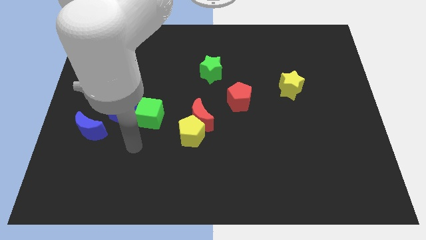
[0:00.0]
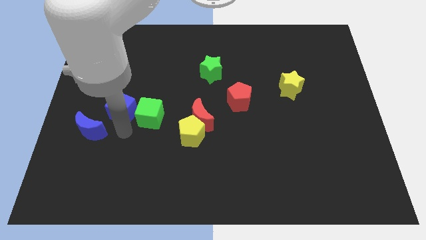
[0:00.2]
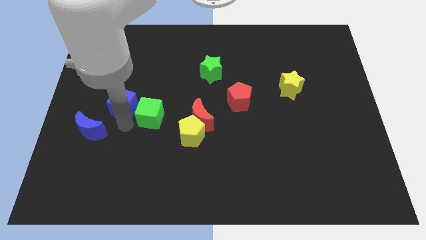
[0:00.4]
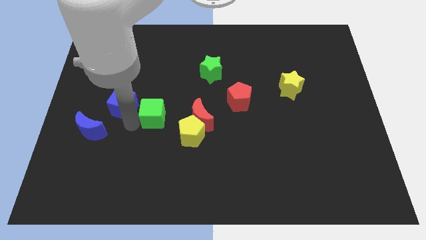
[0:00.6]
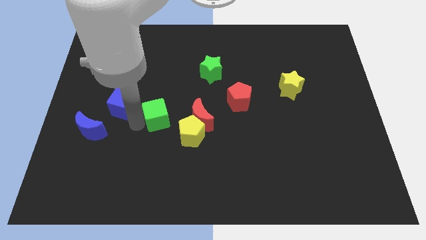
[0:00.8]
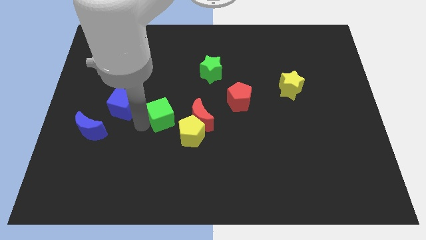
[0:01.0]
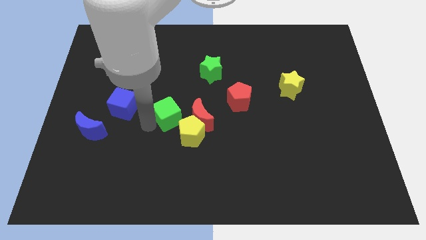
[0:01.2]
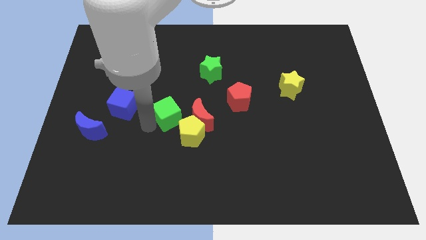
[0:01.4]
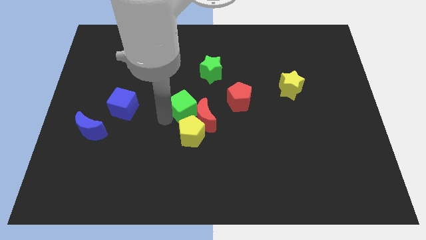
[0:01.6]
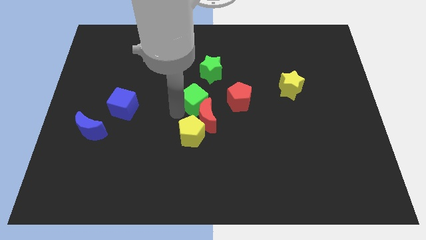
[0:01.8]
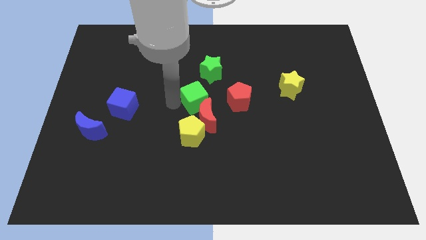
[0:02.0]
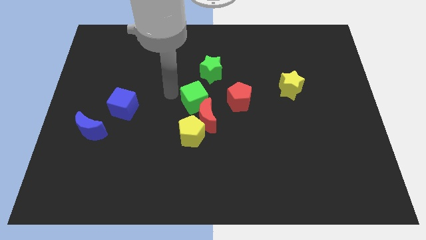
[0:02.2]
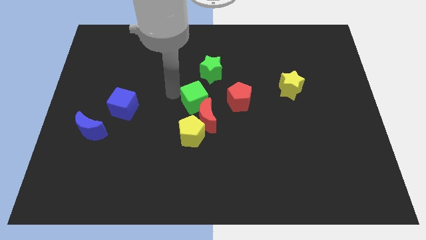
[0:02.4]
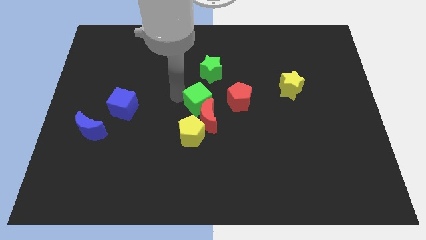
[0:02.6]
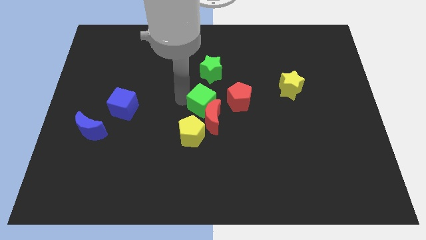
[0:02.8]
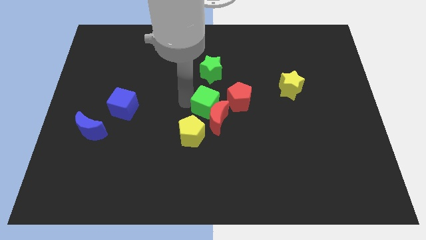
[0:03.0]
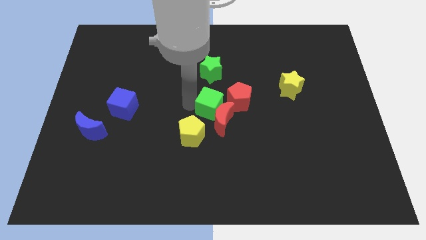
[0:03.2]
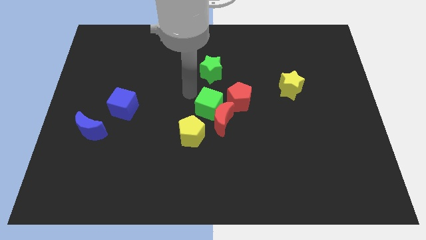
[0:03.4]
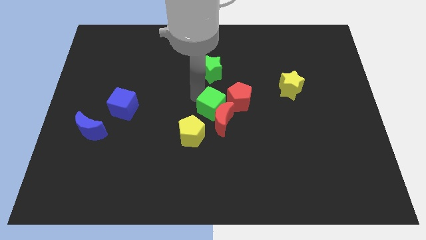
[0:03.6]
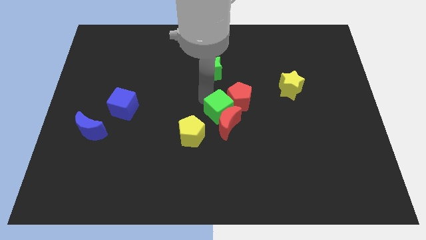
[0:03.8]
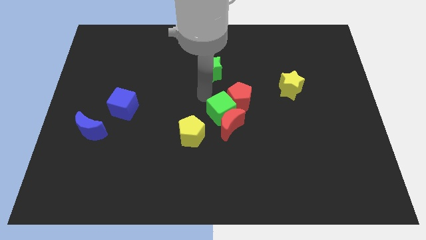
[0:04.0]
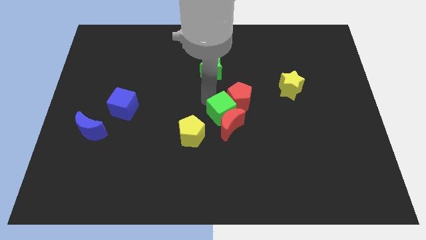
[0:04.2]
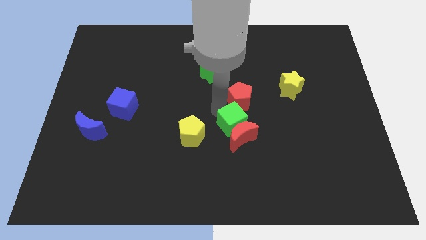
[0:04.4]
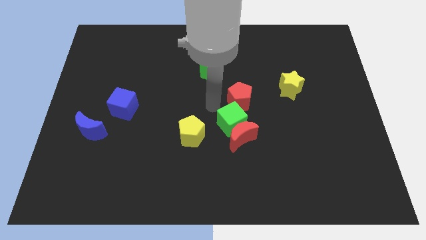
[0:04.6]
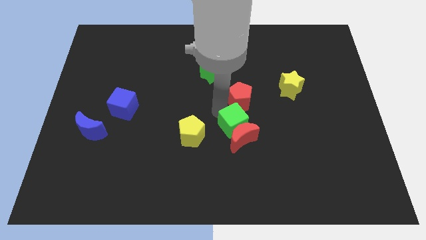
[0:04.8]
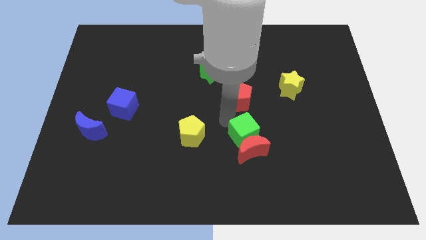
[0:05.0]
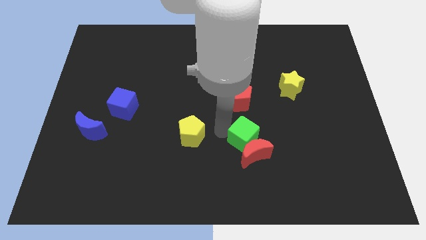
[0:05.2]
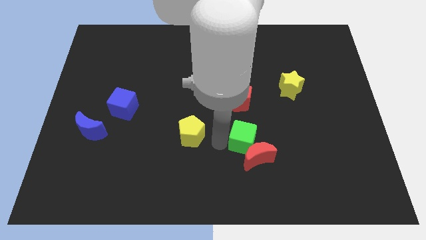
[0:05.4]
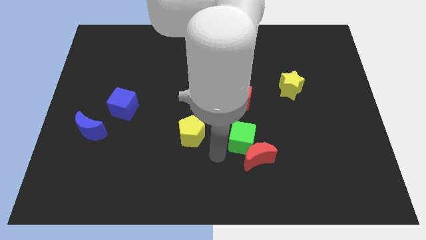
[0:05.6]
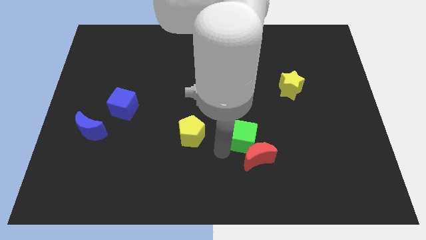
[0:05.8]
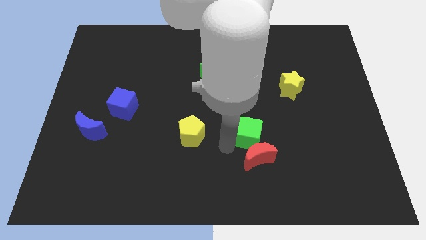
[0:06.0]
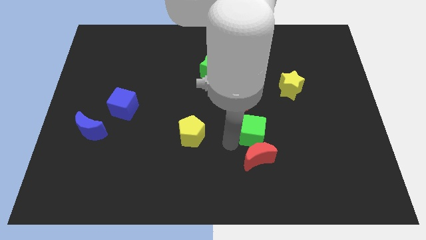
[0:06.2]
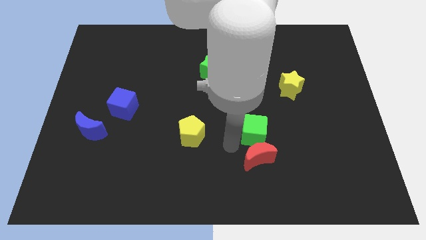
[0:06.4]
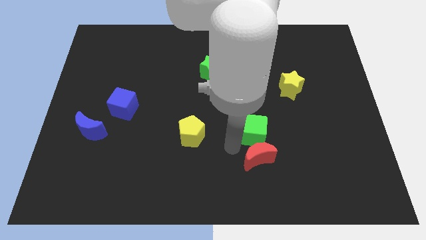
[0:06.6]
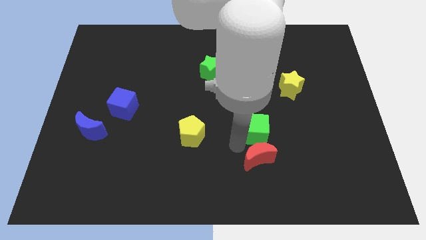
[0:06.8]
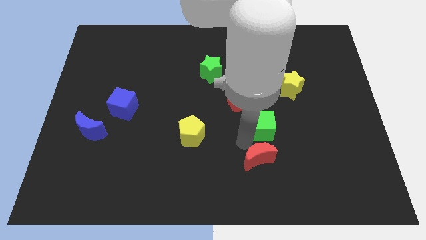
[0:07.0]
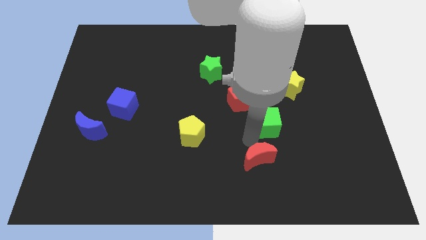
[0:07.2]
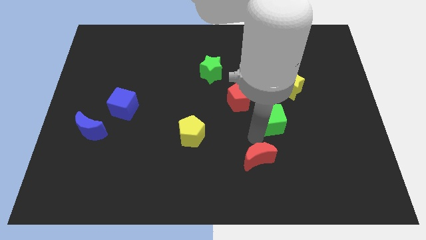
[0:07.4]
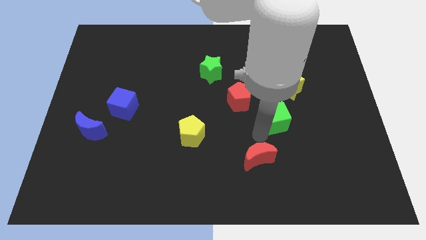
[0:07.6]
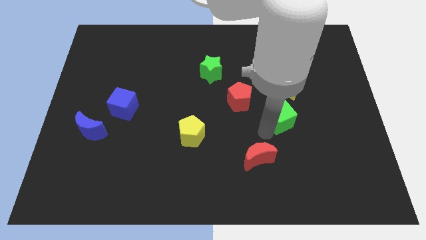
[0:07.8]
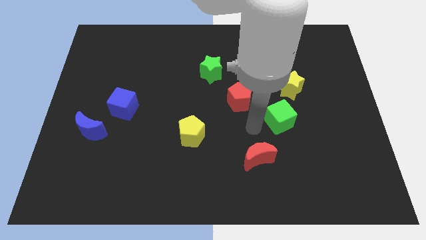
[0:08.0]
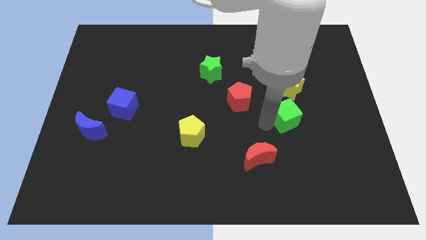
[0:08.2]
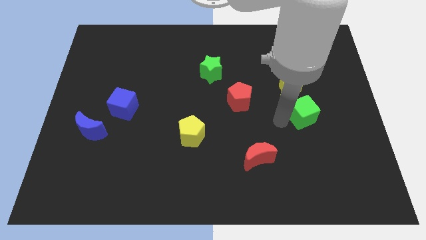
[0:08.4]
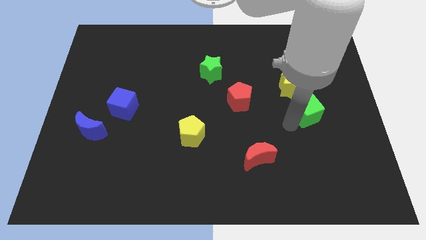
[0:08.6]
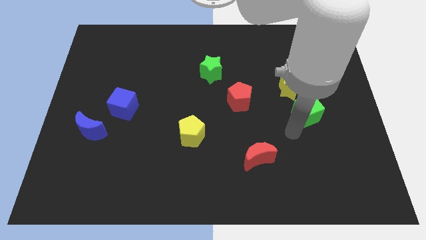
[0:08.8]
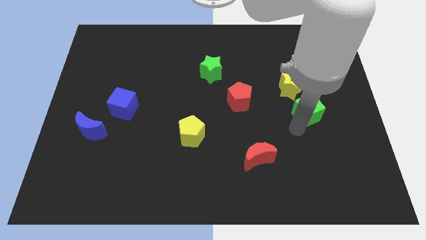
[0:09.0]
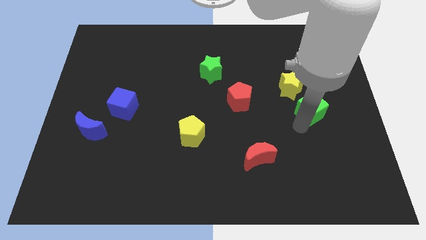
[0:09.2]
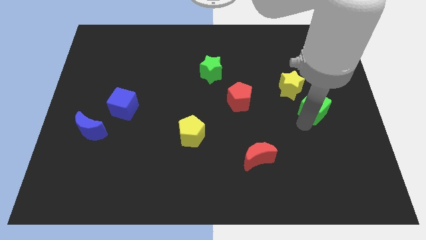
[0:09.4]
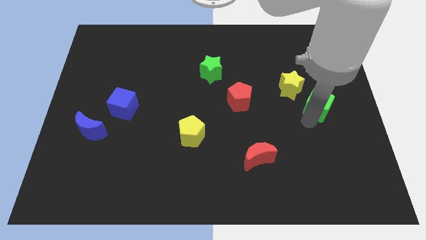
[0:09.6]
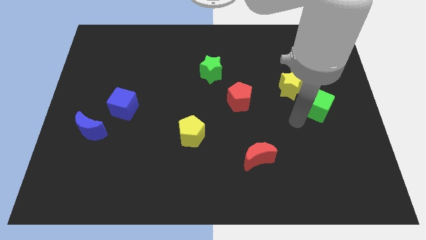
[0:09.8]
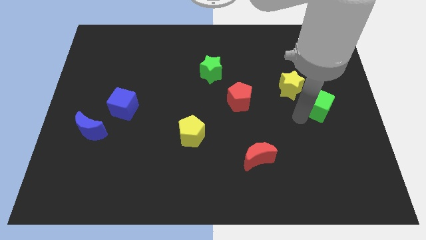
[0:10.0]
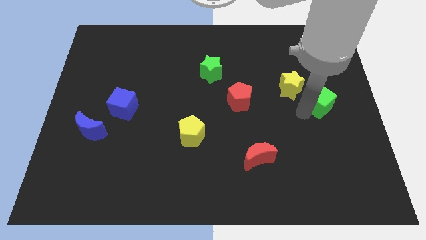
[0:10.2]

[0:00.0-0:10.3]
put the green cube to the right side of the board
